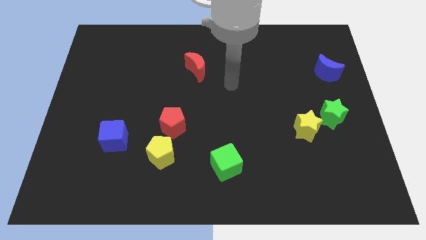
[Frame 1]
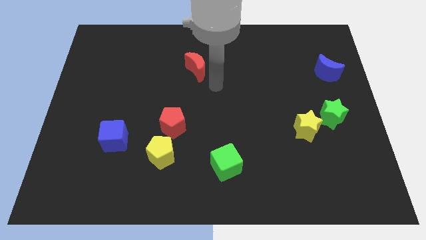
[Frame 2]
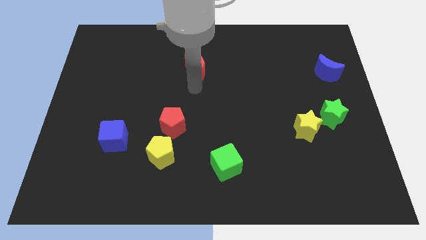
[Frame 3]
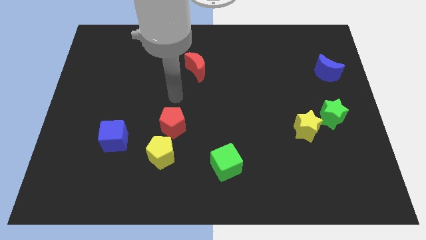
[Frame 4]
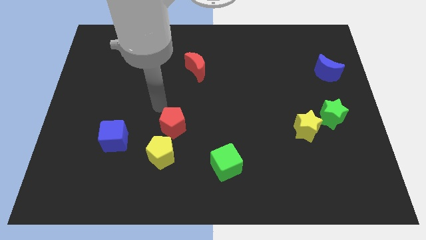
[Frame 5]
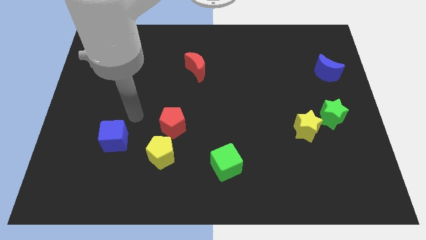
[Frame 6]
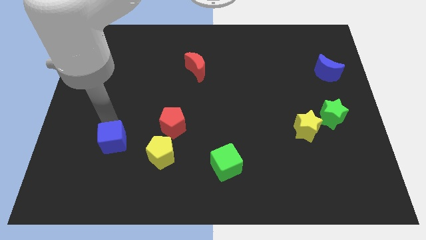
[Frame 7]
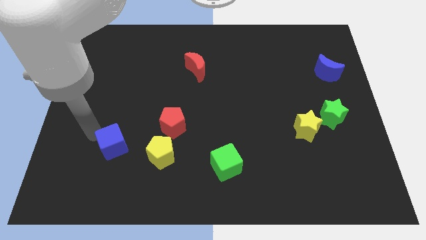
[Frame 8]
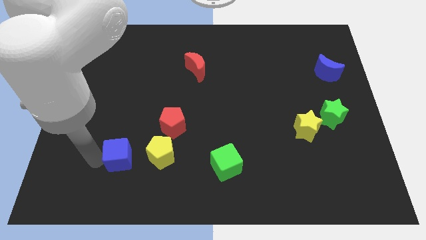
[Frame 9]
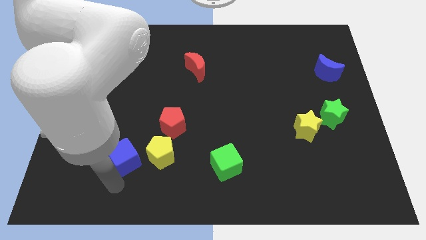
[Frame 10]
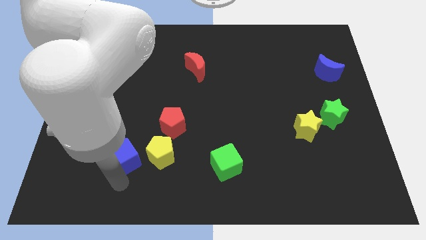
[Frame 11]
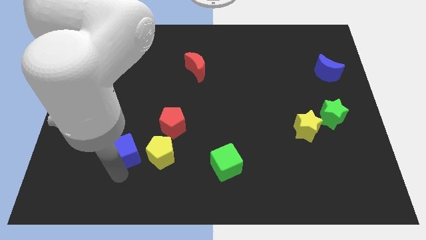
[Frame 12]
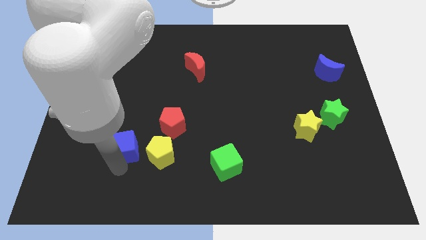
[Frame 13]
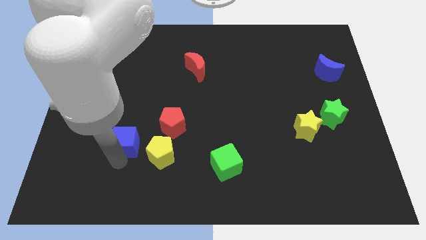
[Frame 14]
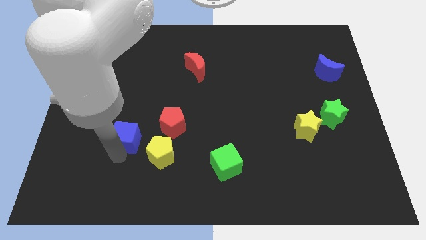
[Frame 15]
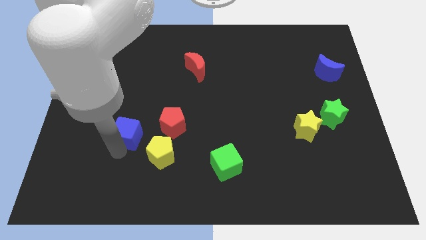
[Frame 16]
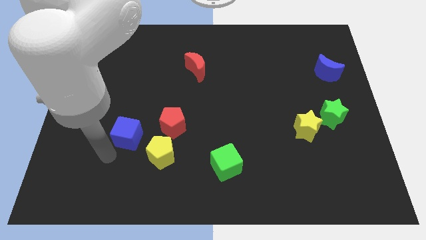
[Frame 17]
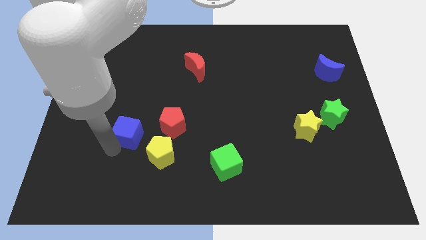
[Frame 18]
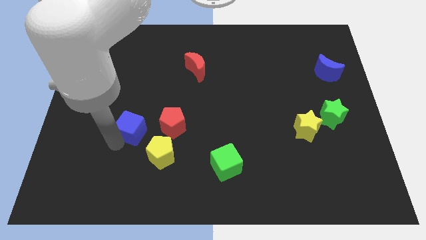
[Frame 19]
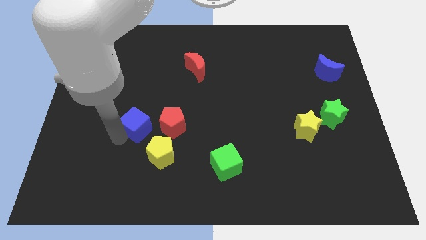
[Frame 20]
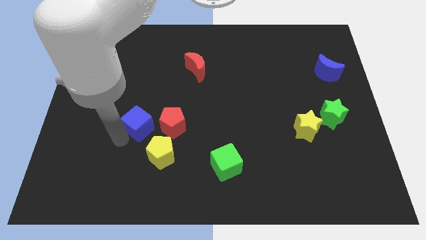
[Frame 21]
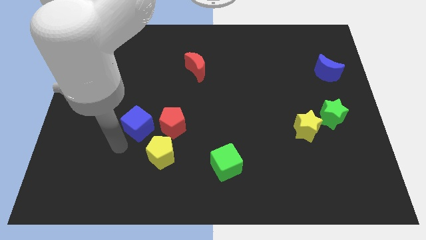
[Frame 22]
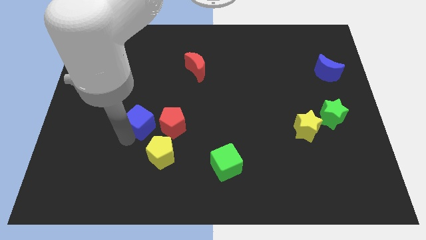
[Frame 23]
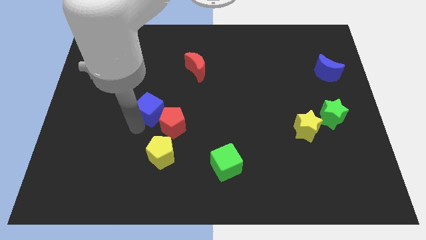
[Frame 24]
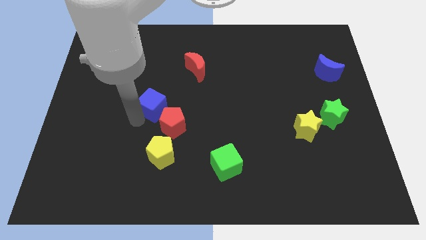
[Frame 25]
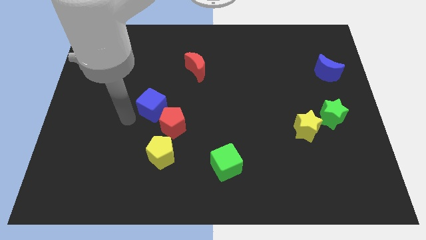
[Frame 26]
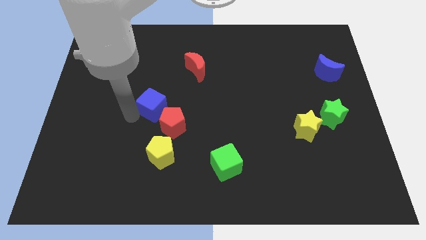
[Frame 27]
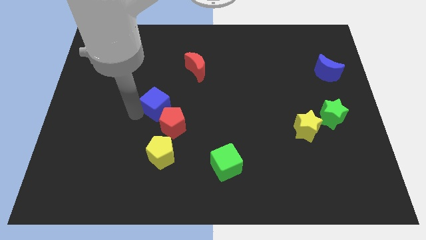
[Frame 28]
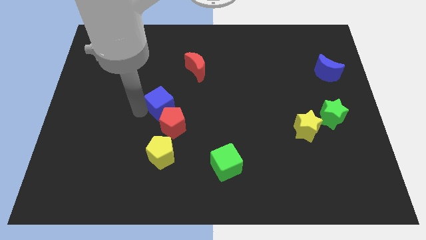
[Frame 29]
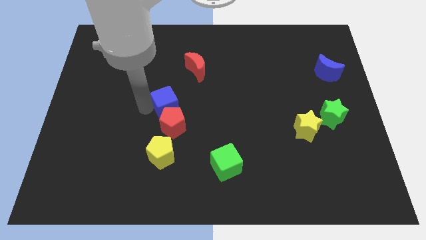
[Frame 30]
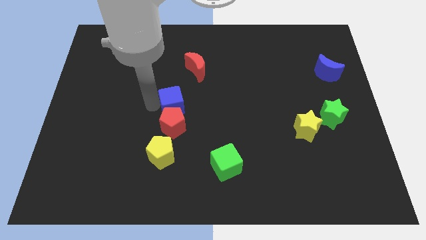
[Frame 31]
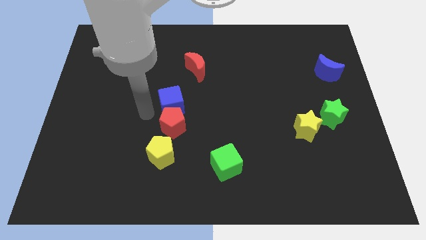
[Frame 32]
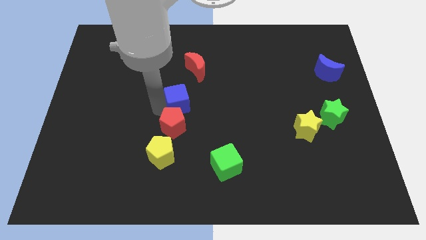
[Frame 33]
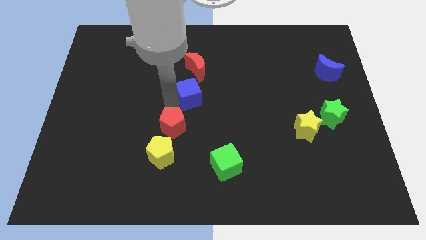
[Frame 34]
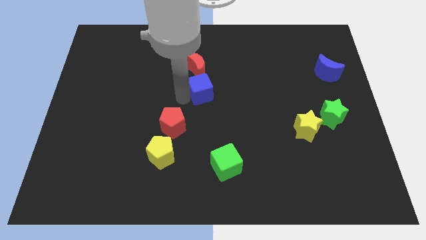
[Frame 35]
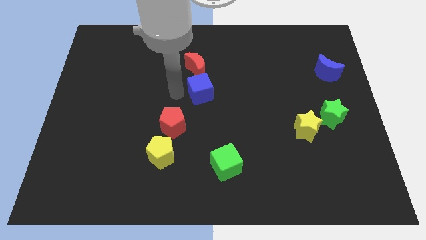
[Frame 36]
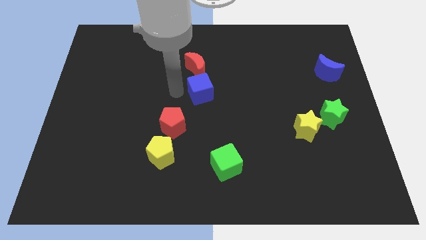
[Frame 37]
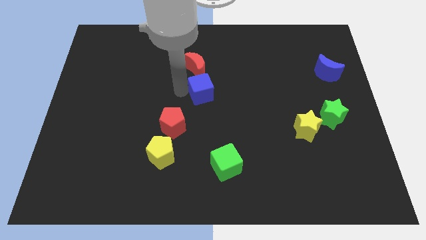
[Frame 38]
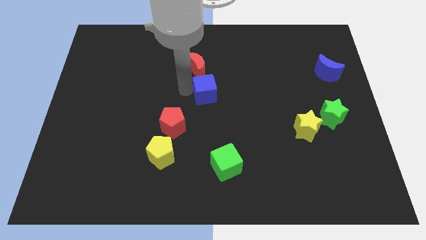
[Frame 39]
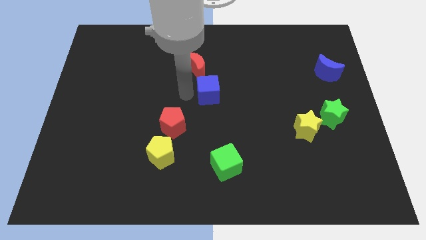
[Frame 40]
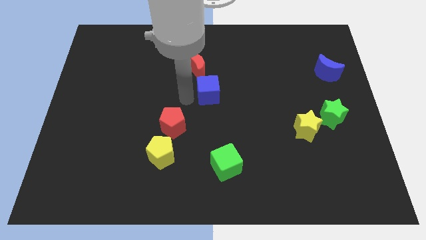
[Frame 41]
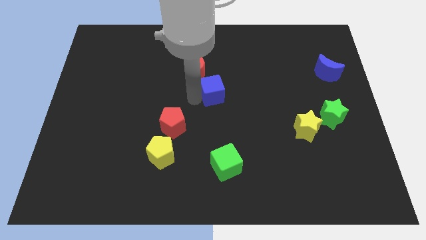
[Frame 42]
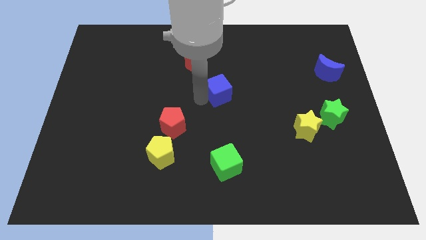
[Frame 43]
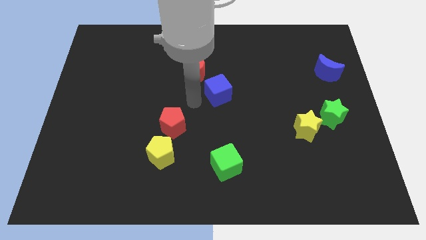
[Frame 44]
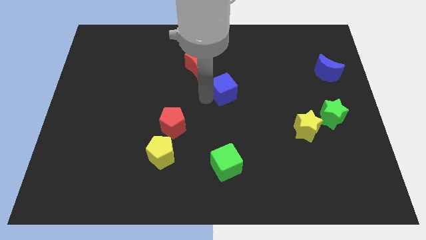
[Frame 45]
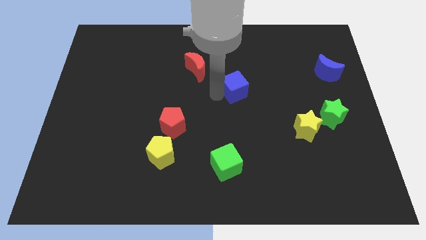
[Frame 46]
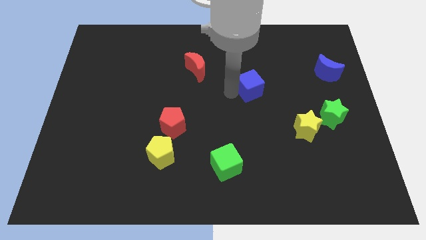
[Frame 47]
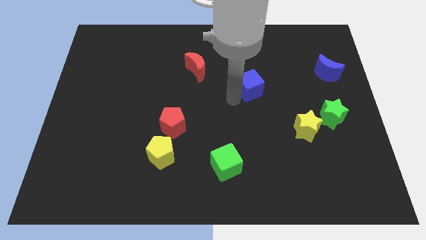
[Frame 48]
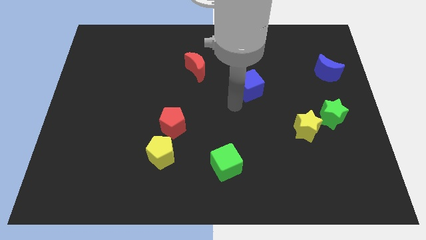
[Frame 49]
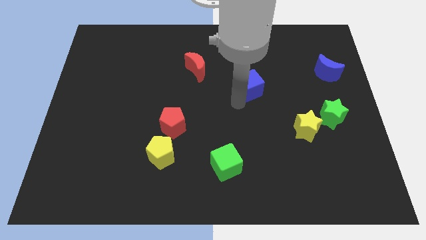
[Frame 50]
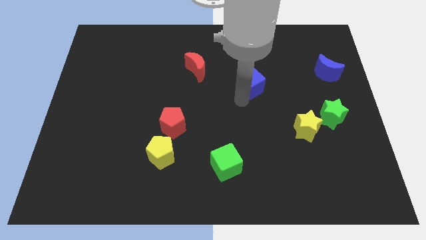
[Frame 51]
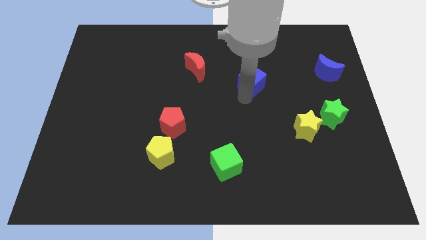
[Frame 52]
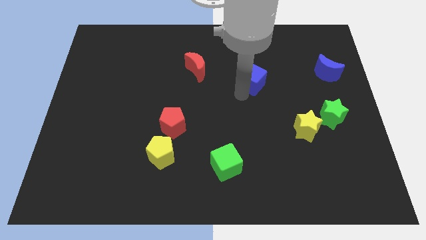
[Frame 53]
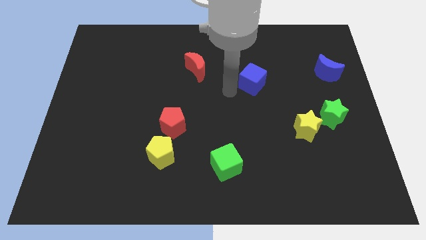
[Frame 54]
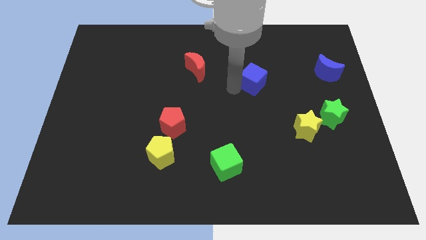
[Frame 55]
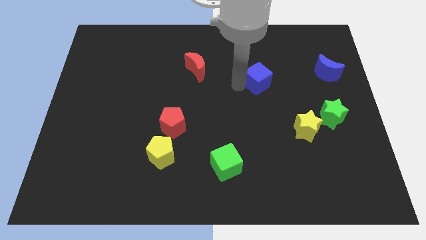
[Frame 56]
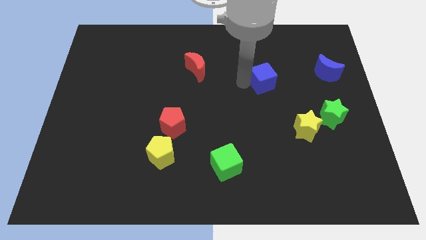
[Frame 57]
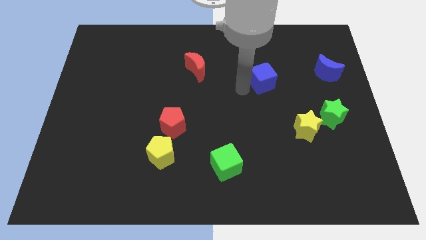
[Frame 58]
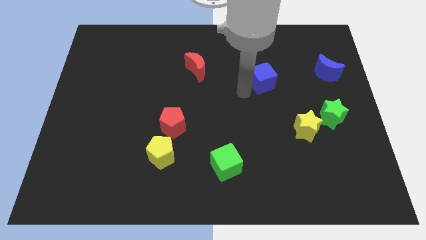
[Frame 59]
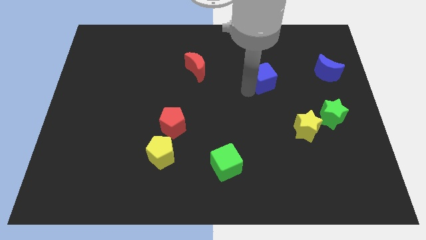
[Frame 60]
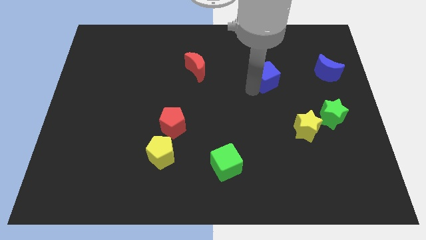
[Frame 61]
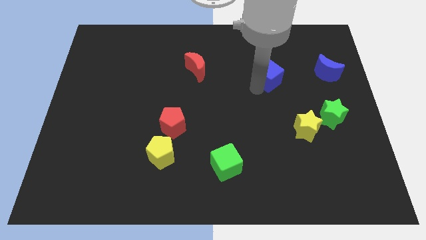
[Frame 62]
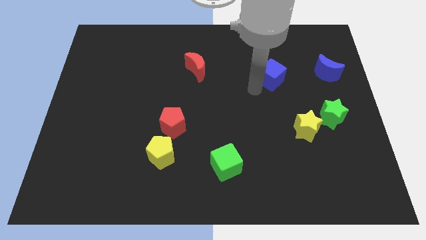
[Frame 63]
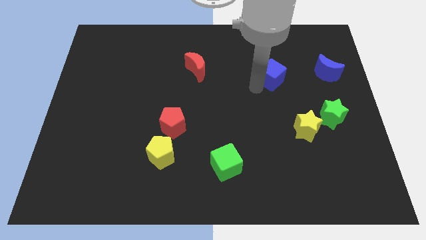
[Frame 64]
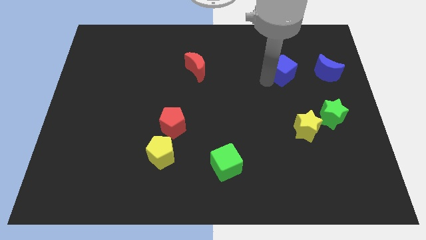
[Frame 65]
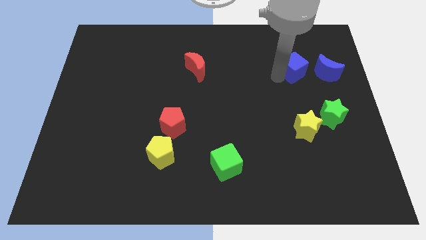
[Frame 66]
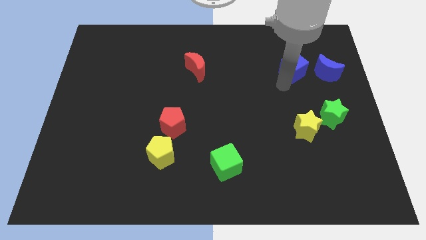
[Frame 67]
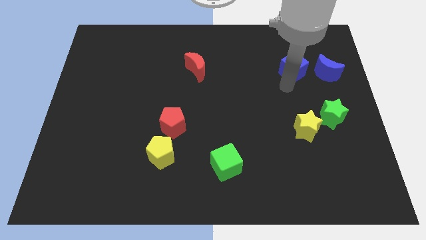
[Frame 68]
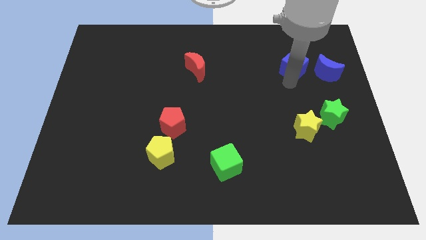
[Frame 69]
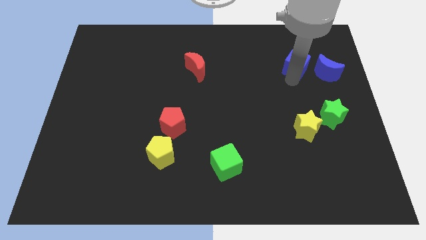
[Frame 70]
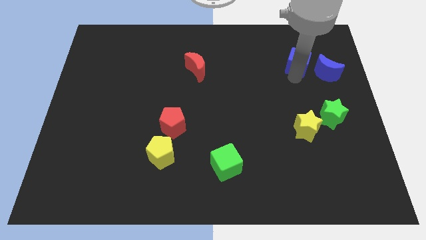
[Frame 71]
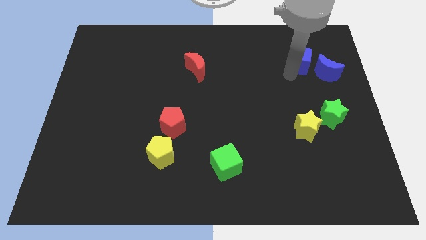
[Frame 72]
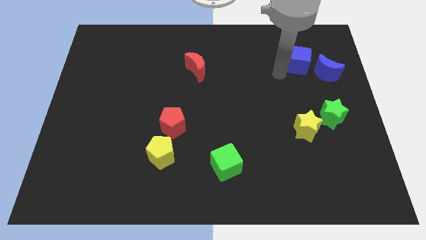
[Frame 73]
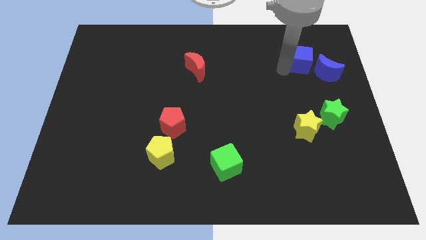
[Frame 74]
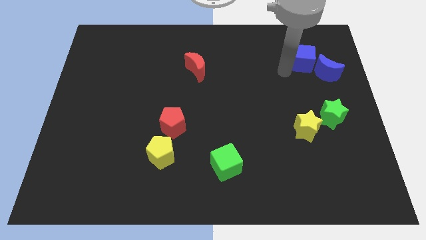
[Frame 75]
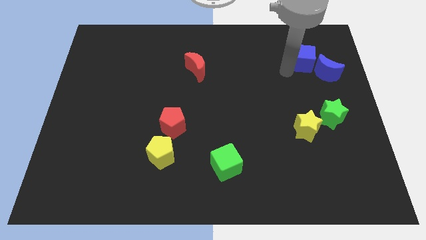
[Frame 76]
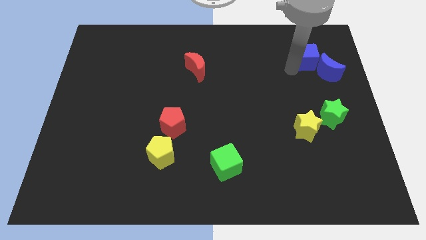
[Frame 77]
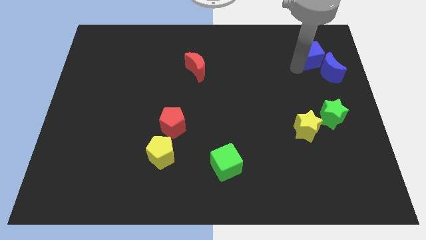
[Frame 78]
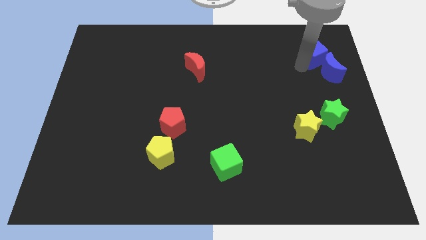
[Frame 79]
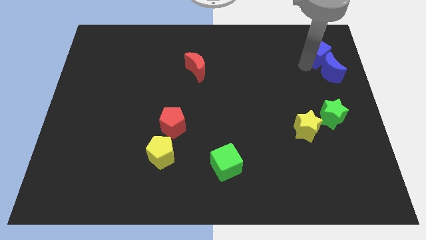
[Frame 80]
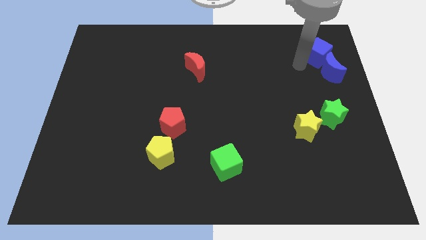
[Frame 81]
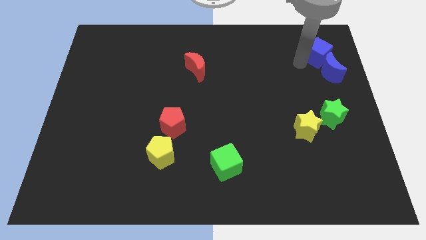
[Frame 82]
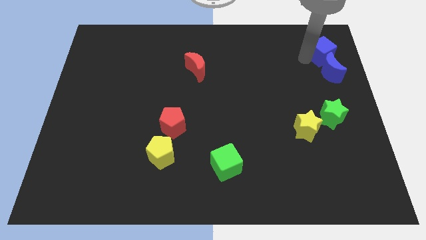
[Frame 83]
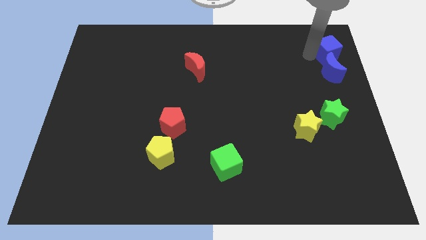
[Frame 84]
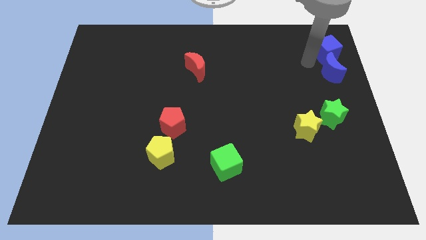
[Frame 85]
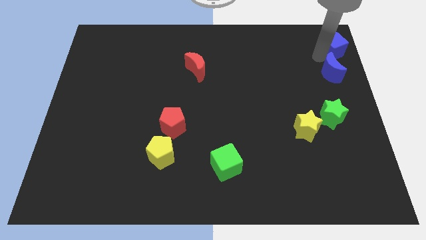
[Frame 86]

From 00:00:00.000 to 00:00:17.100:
push the blue cube to the top right
